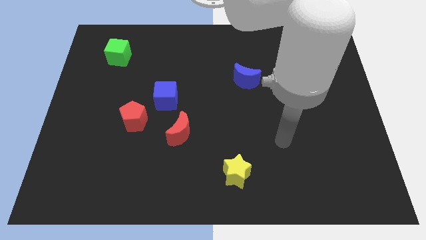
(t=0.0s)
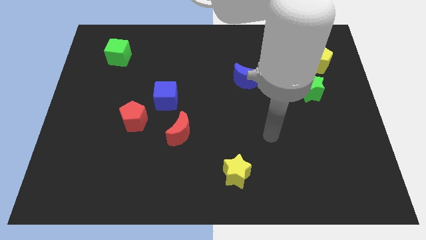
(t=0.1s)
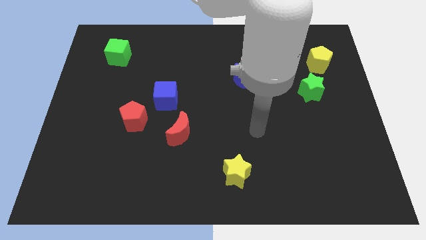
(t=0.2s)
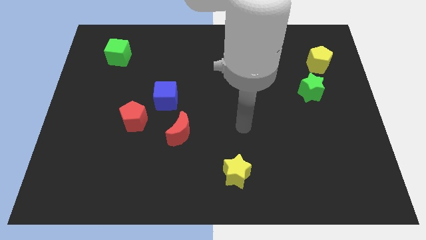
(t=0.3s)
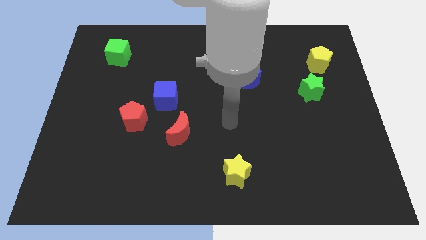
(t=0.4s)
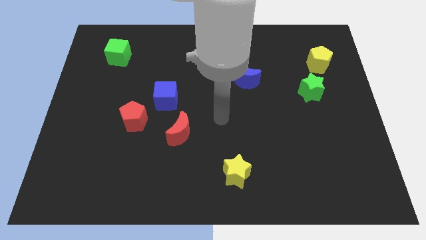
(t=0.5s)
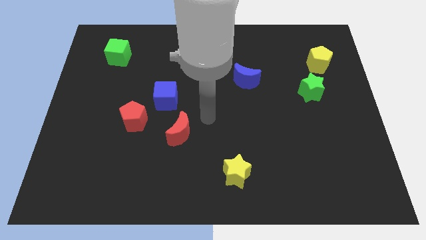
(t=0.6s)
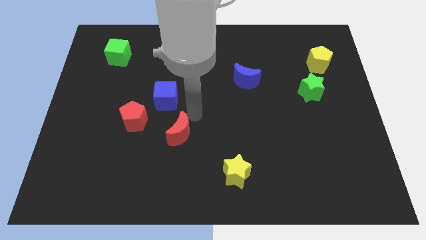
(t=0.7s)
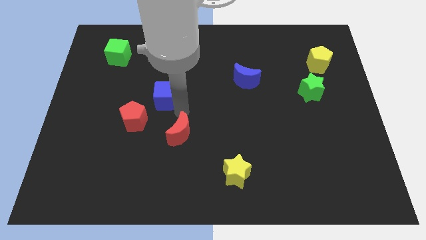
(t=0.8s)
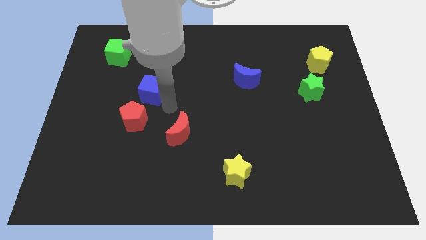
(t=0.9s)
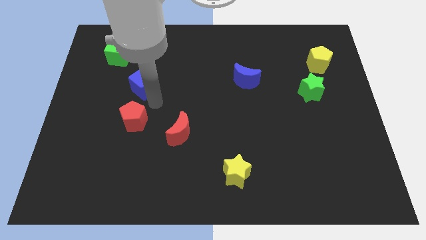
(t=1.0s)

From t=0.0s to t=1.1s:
separate the red pentagon from the blue cube

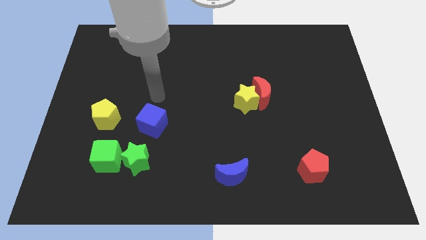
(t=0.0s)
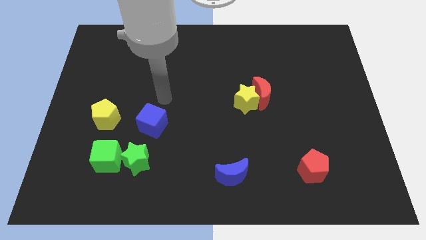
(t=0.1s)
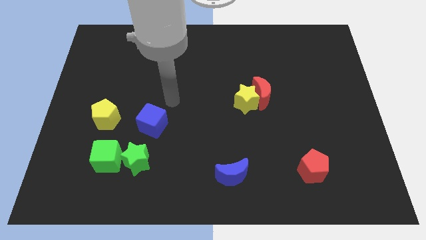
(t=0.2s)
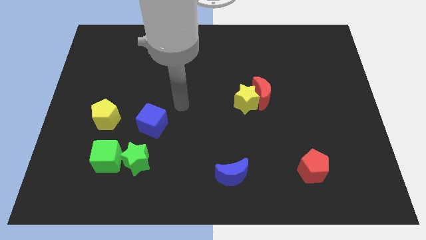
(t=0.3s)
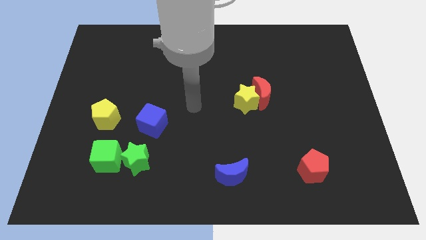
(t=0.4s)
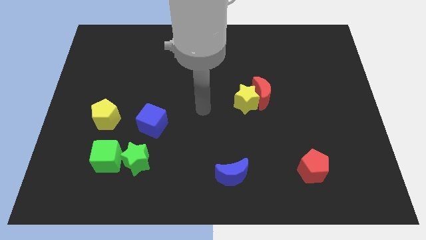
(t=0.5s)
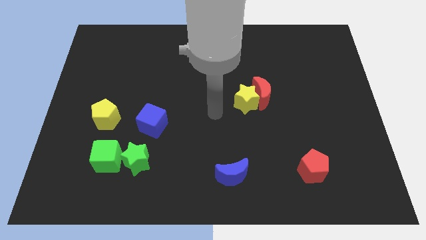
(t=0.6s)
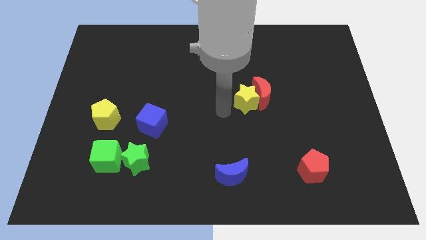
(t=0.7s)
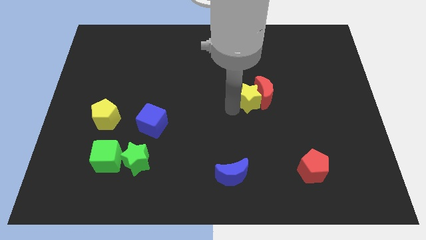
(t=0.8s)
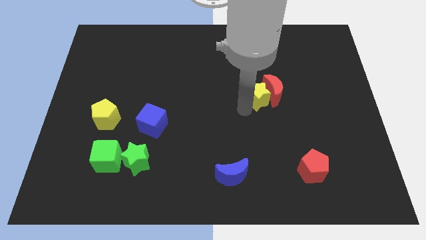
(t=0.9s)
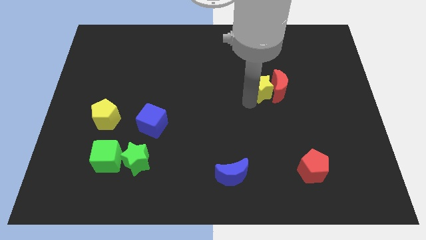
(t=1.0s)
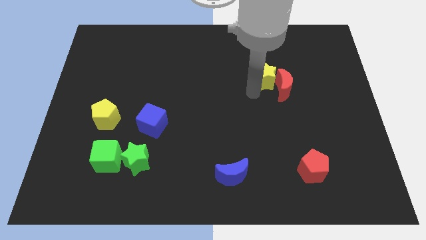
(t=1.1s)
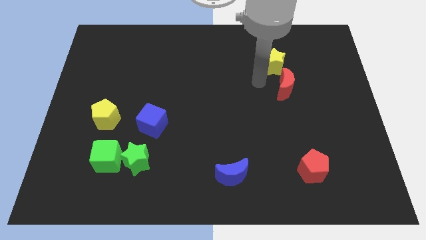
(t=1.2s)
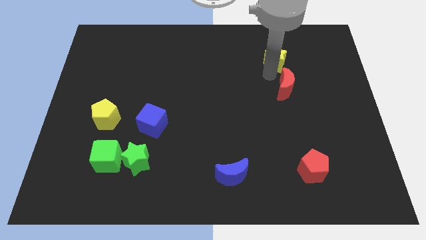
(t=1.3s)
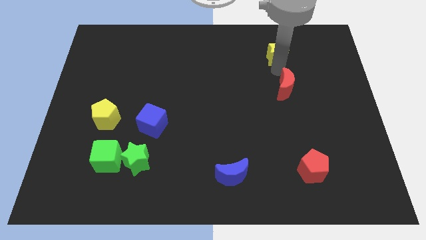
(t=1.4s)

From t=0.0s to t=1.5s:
move the red moon away from the yellow star

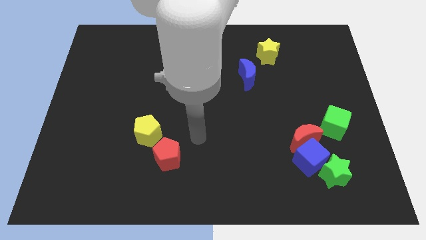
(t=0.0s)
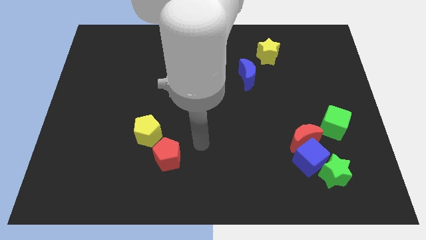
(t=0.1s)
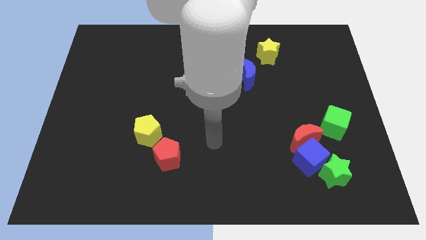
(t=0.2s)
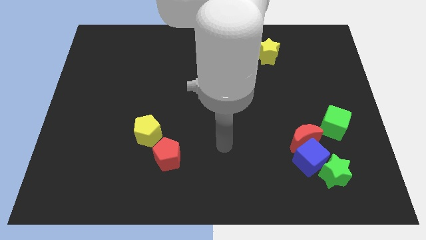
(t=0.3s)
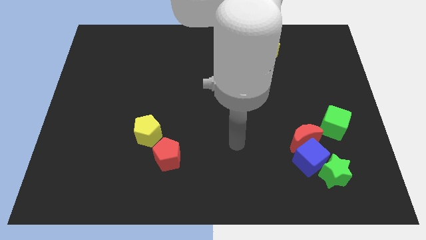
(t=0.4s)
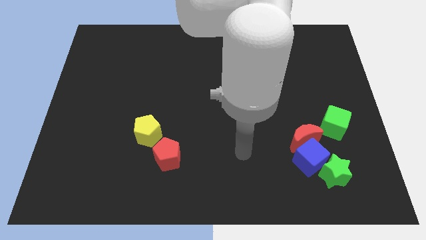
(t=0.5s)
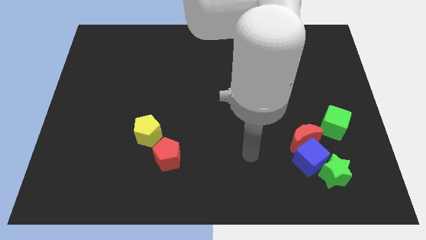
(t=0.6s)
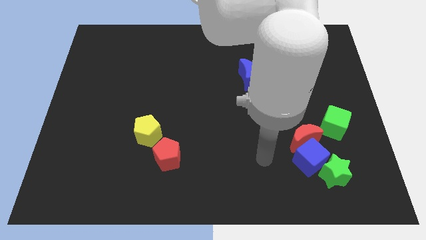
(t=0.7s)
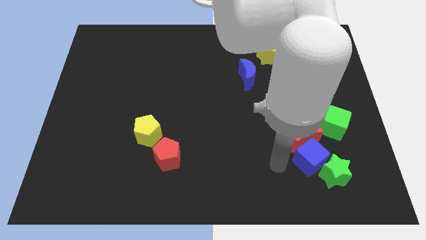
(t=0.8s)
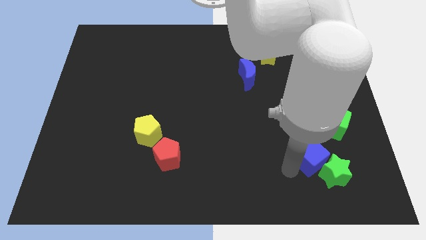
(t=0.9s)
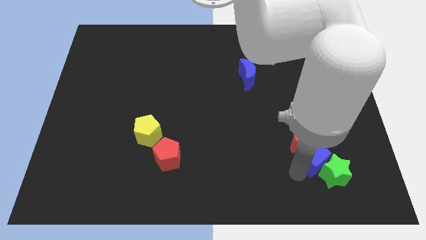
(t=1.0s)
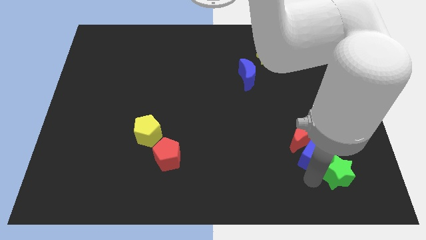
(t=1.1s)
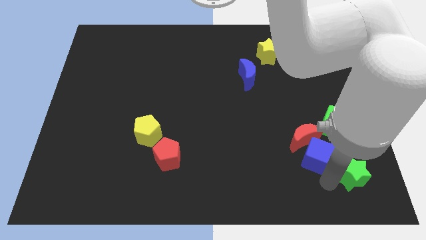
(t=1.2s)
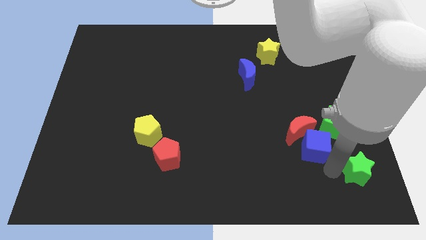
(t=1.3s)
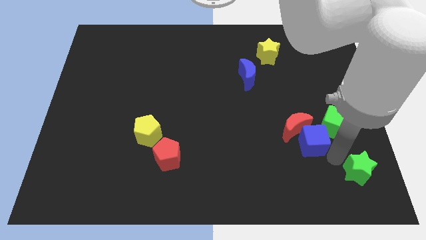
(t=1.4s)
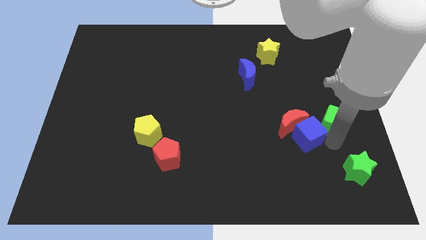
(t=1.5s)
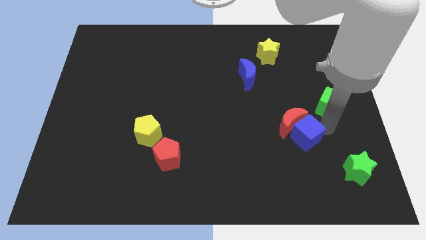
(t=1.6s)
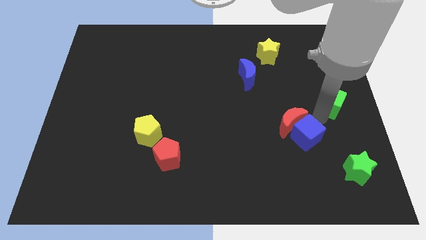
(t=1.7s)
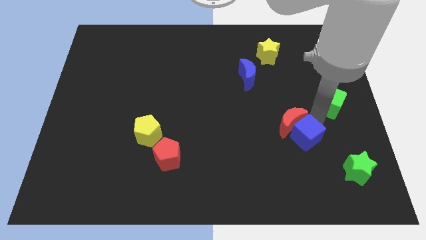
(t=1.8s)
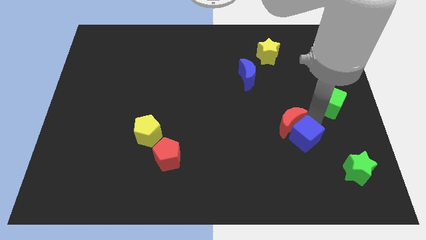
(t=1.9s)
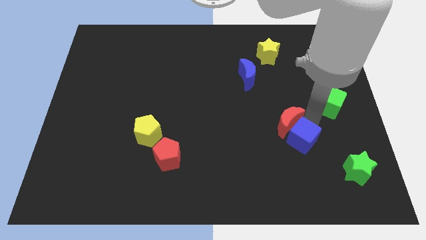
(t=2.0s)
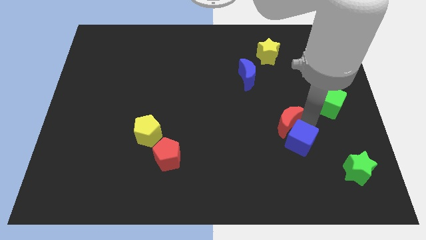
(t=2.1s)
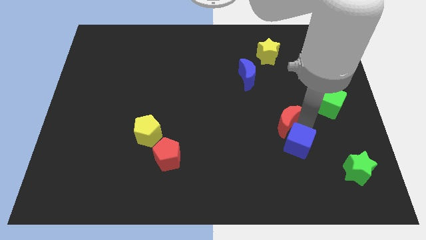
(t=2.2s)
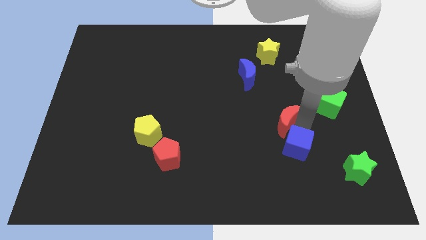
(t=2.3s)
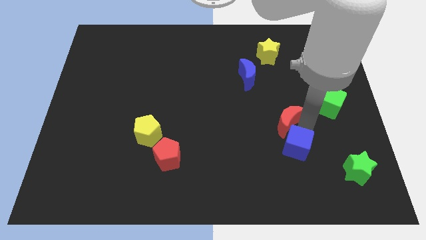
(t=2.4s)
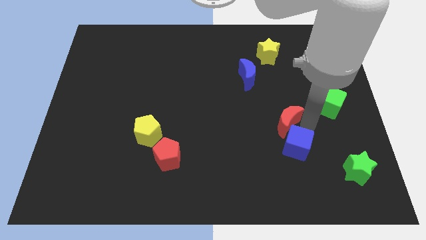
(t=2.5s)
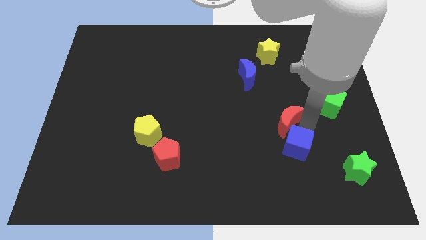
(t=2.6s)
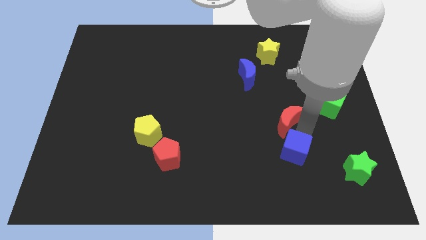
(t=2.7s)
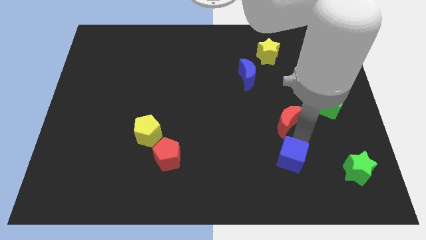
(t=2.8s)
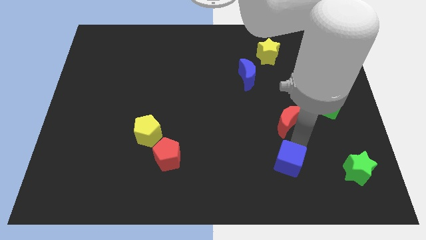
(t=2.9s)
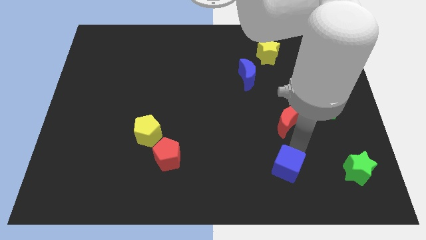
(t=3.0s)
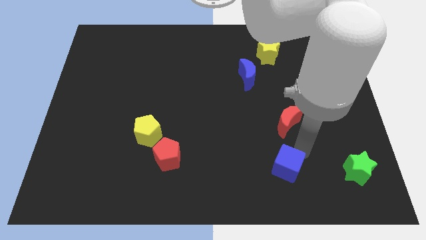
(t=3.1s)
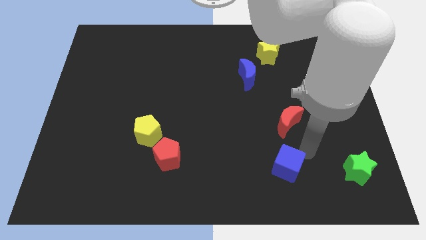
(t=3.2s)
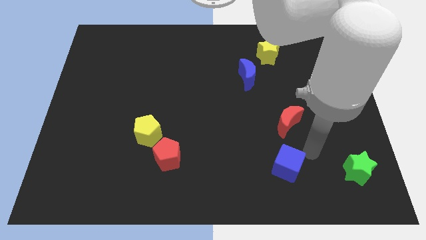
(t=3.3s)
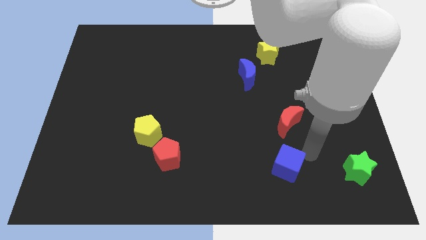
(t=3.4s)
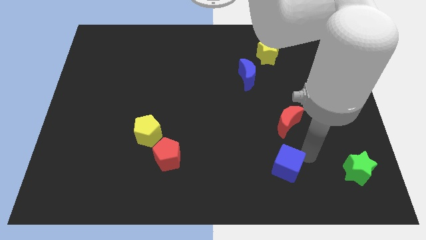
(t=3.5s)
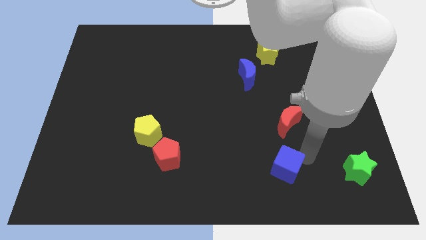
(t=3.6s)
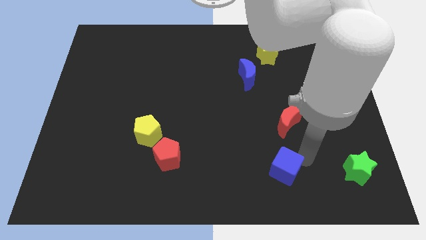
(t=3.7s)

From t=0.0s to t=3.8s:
pull the blue cube apart from the red moon and green star

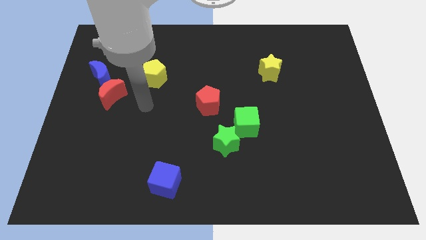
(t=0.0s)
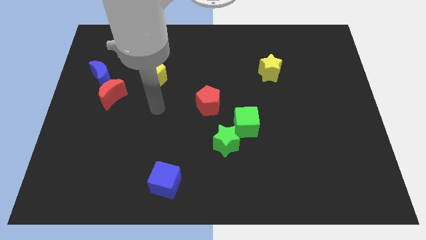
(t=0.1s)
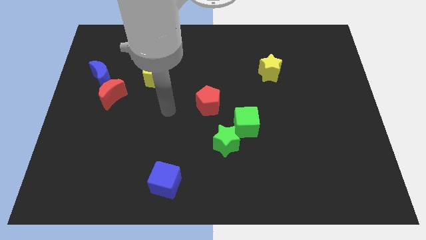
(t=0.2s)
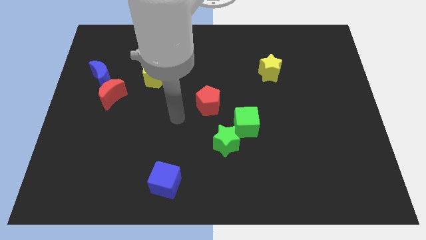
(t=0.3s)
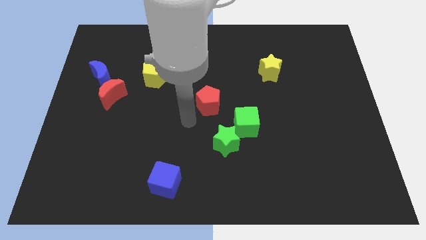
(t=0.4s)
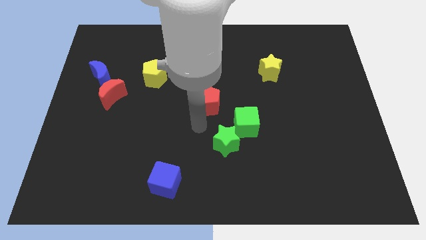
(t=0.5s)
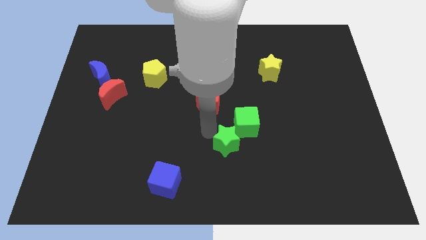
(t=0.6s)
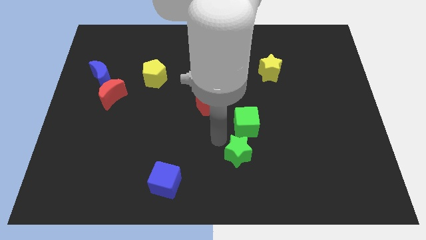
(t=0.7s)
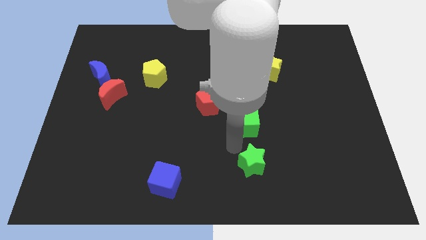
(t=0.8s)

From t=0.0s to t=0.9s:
pull the green cube apart from the green star

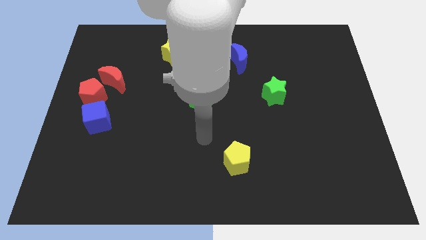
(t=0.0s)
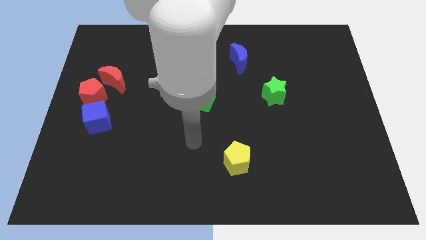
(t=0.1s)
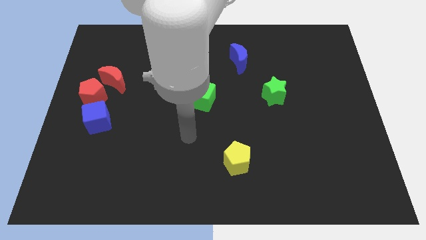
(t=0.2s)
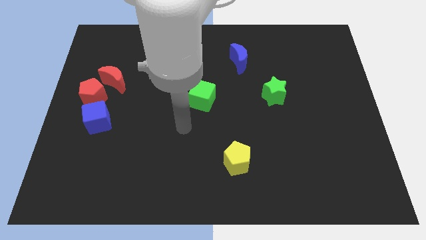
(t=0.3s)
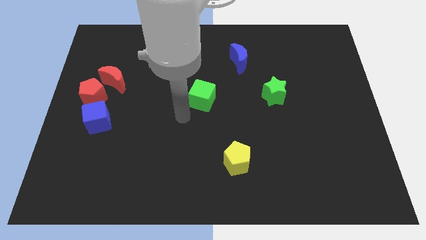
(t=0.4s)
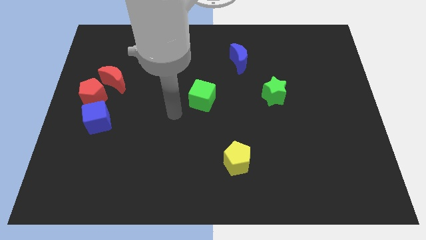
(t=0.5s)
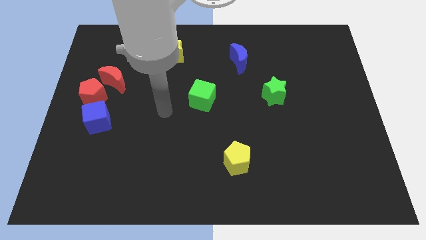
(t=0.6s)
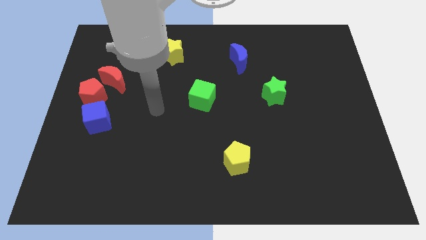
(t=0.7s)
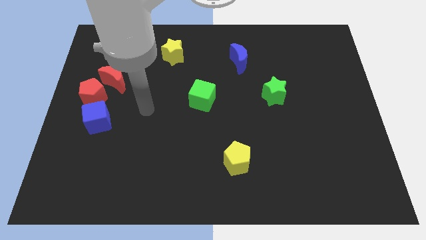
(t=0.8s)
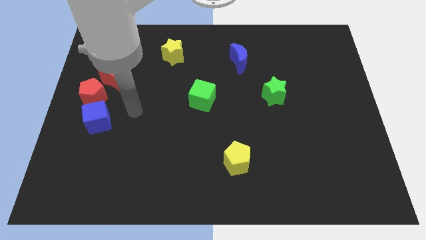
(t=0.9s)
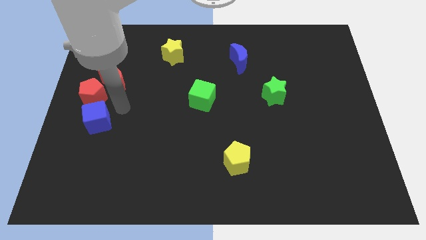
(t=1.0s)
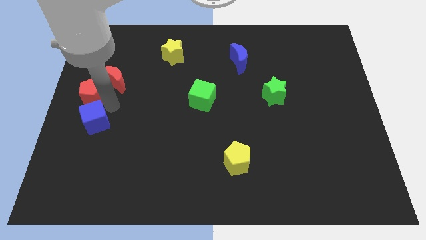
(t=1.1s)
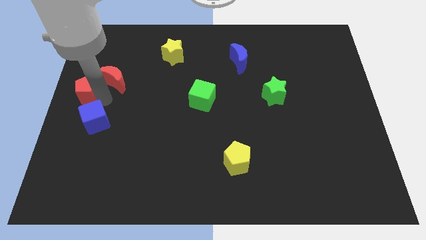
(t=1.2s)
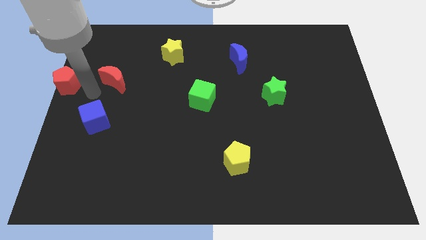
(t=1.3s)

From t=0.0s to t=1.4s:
move the red moon away from the red pentagon

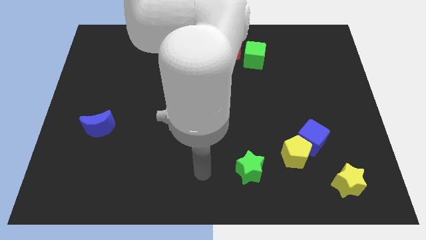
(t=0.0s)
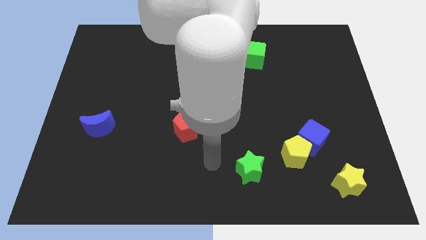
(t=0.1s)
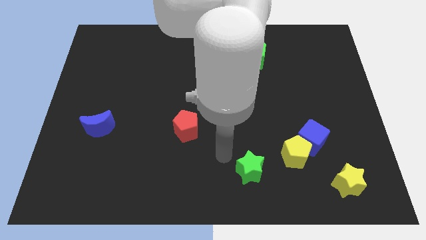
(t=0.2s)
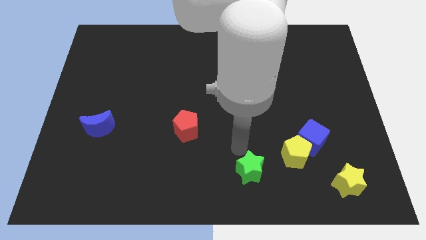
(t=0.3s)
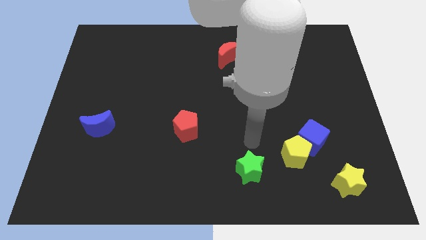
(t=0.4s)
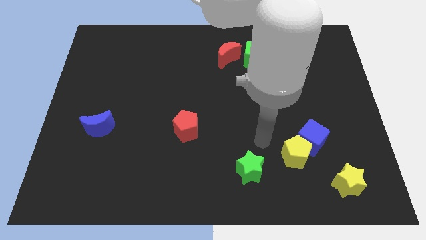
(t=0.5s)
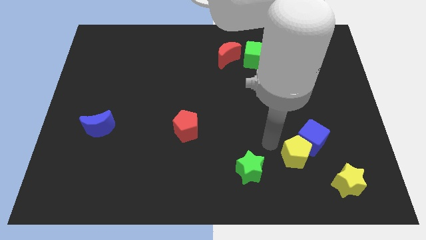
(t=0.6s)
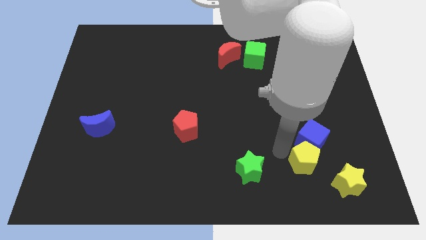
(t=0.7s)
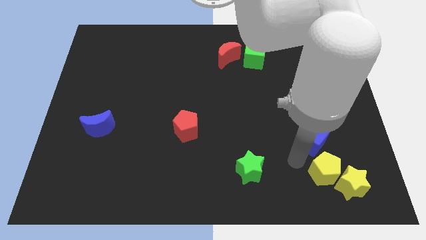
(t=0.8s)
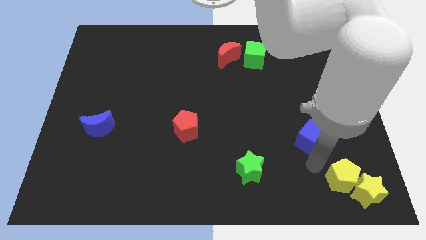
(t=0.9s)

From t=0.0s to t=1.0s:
pull the blue cube apart from the yellow pentagon
